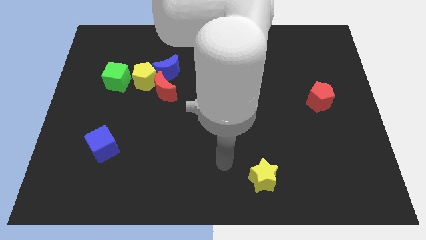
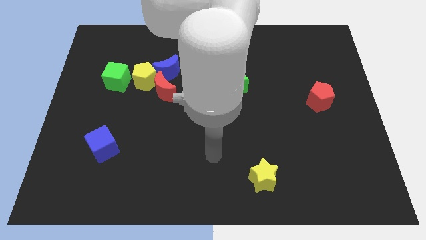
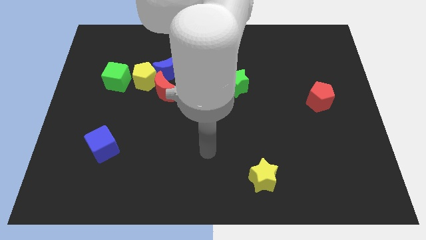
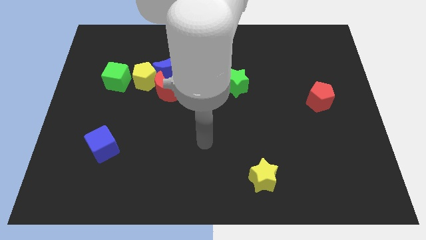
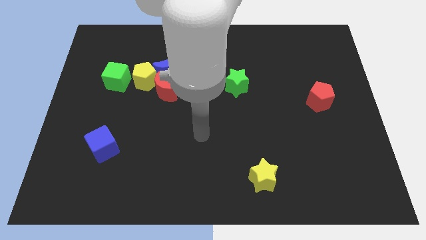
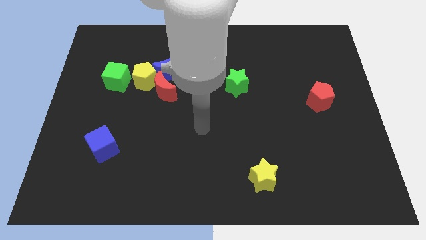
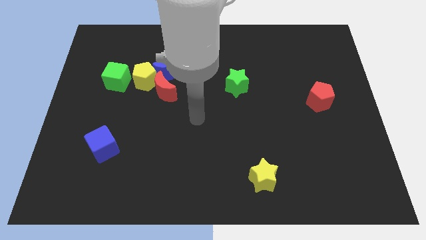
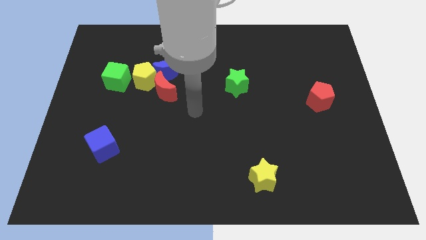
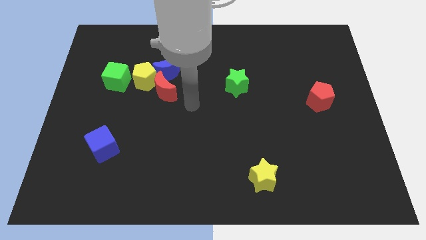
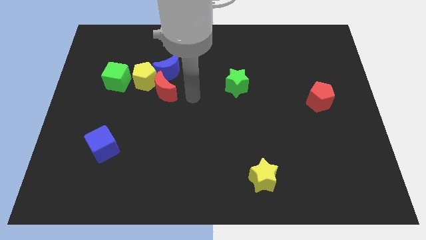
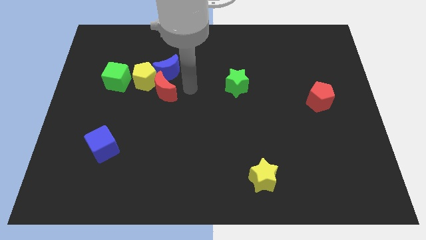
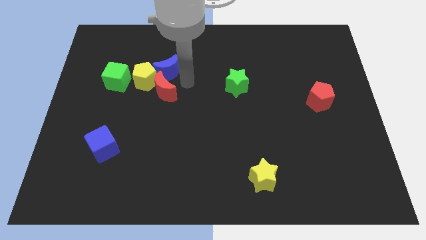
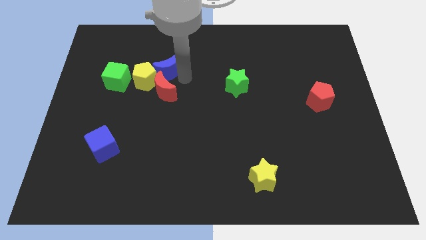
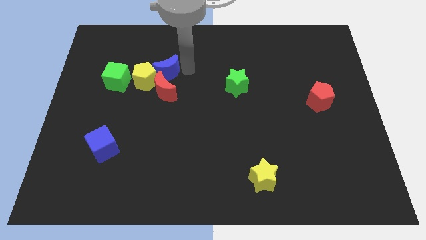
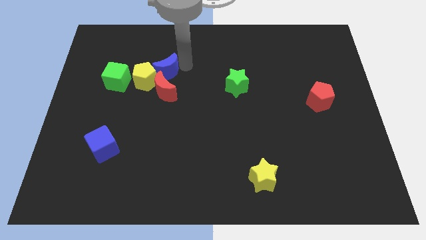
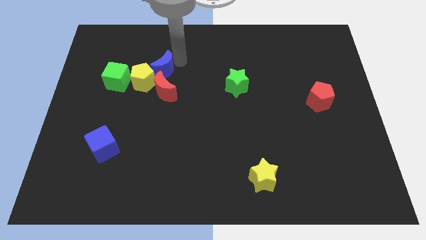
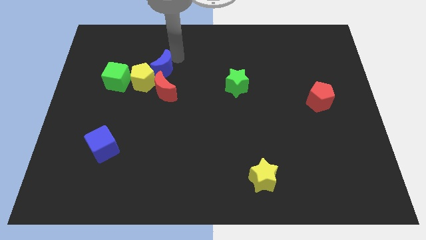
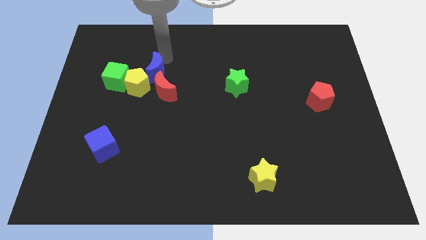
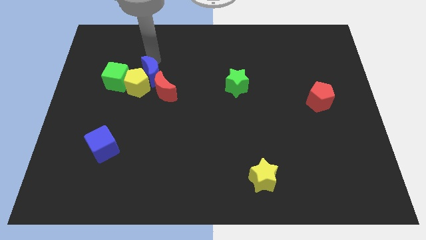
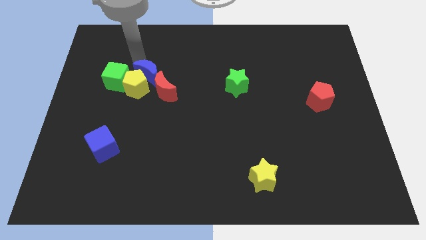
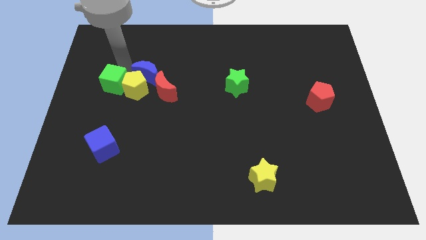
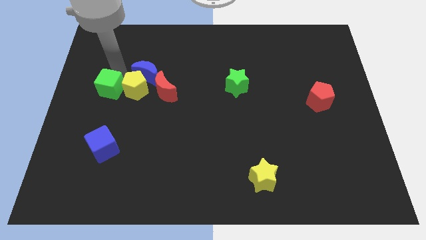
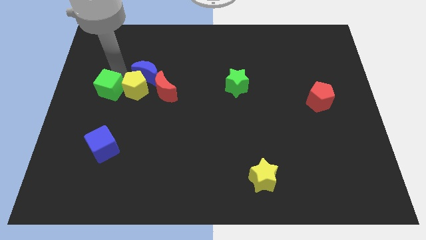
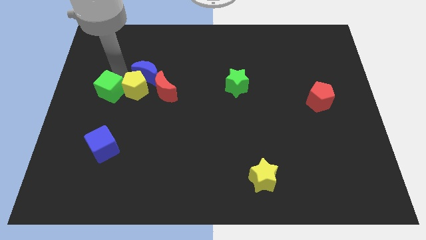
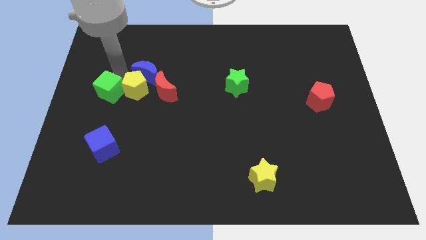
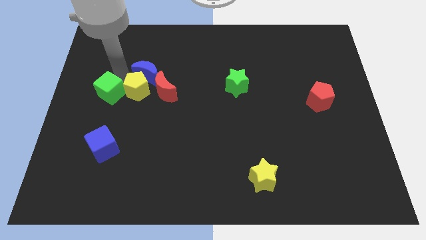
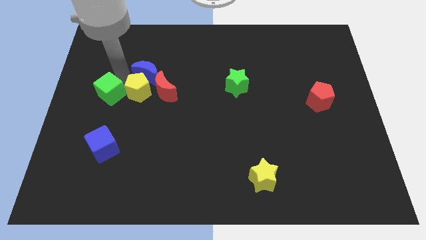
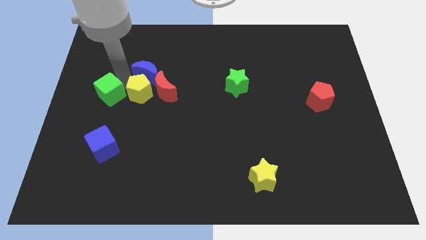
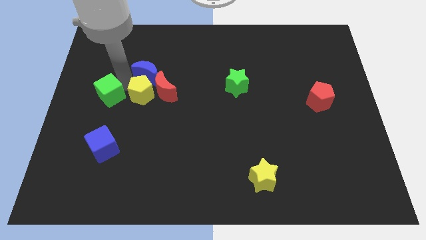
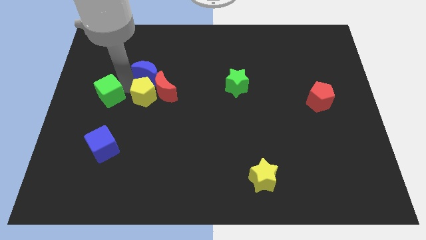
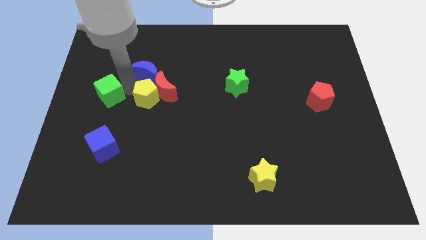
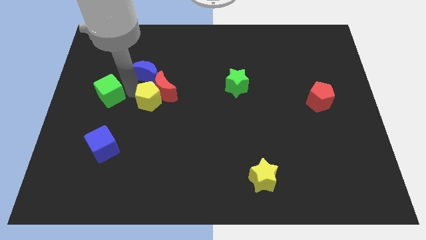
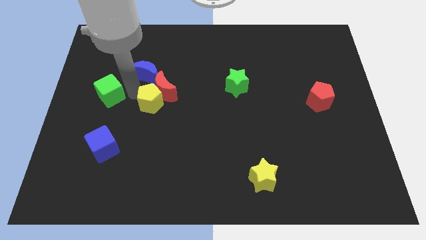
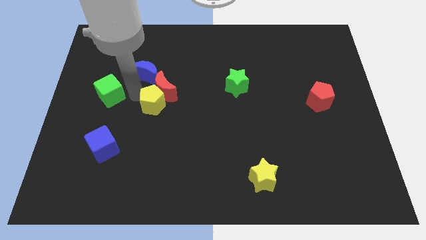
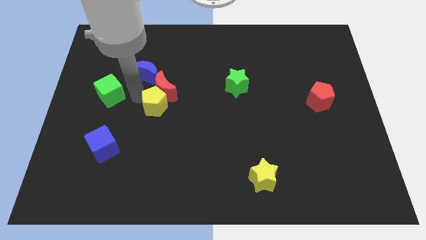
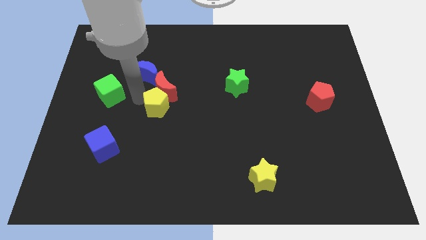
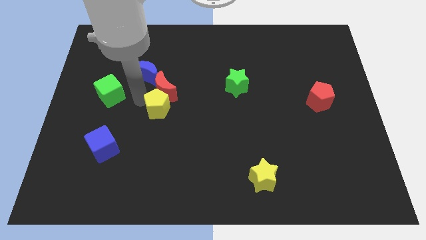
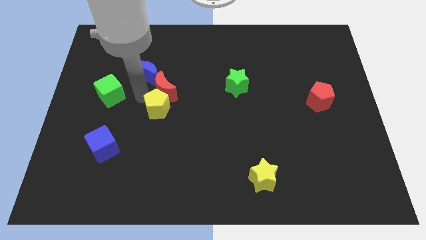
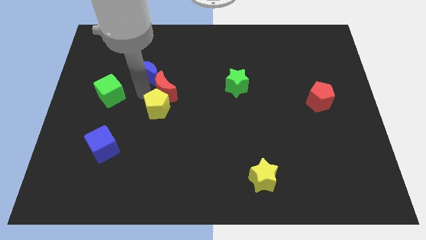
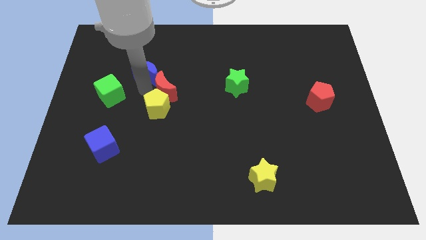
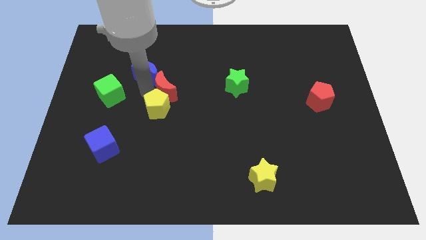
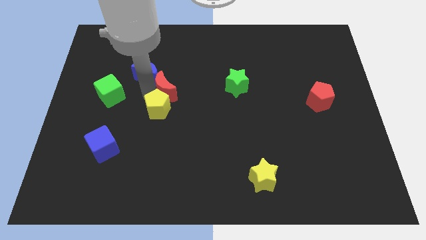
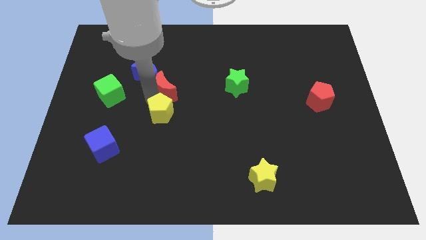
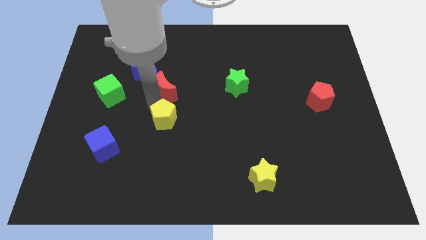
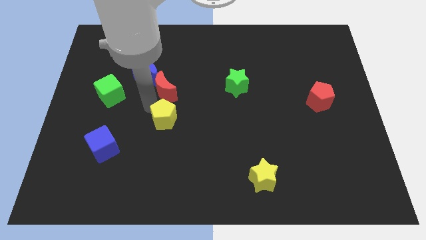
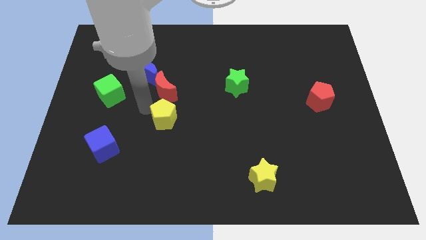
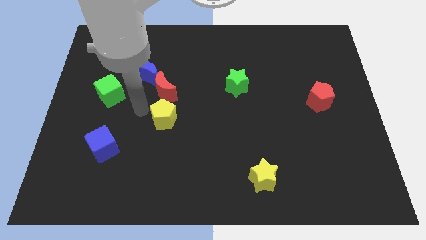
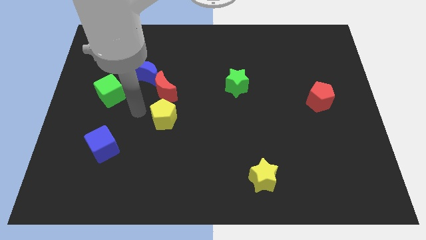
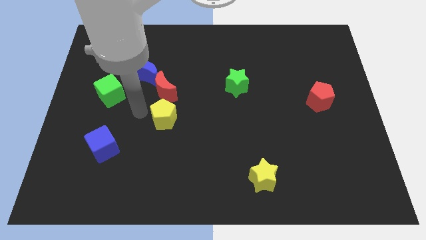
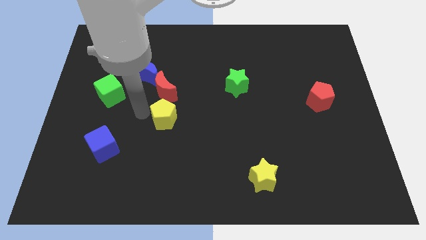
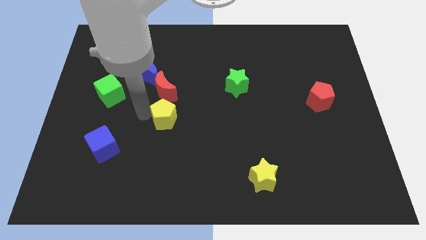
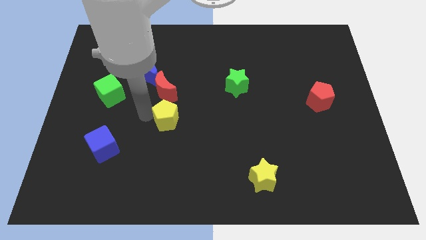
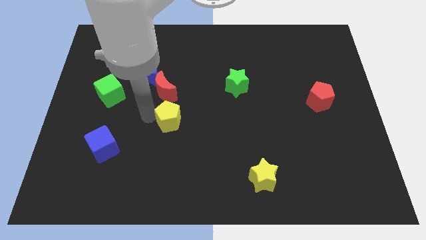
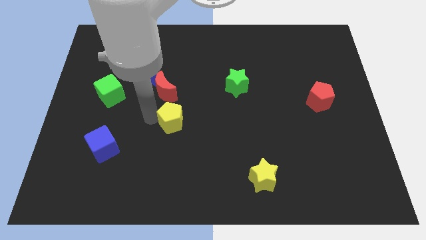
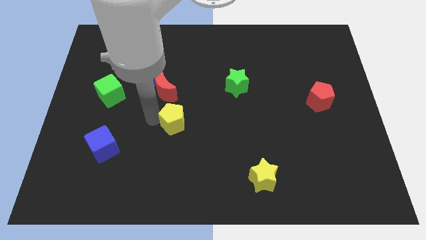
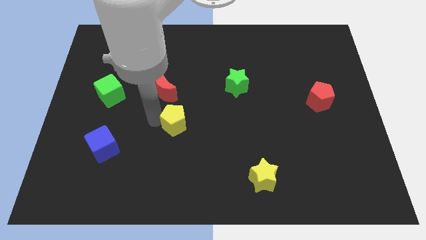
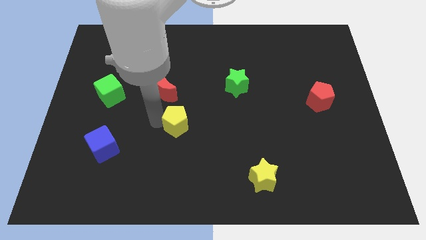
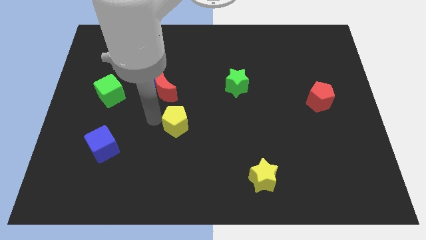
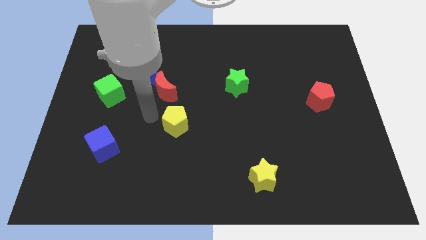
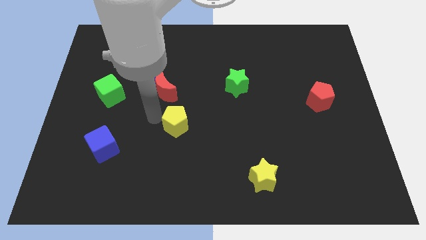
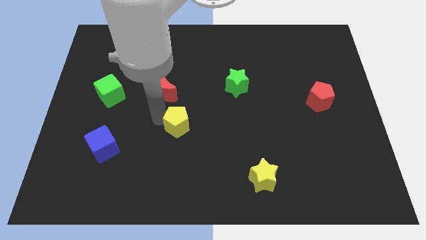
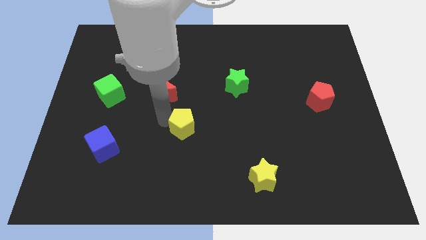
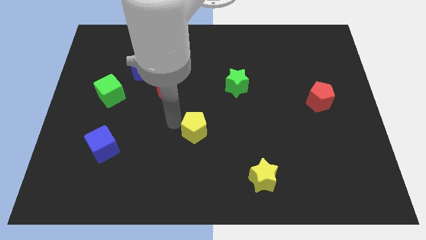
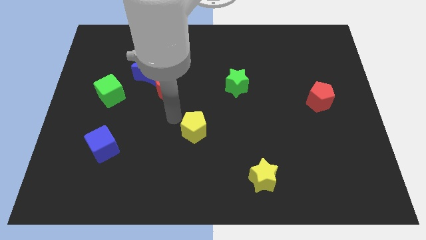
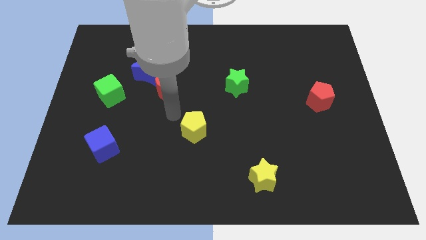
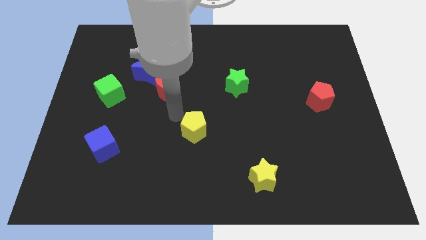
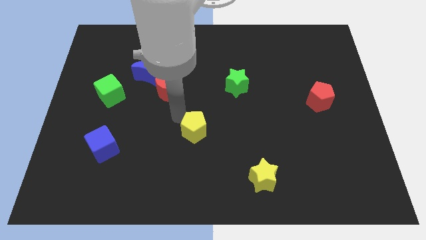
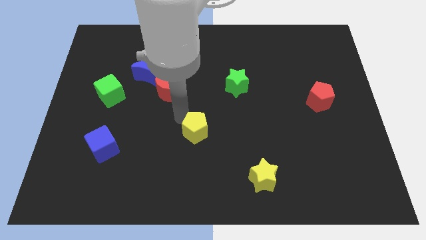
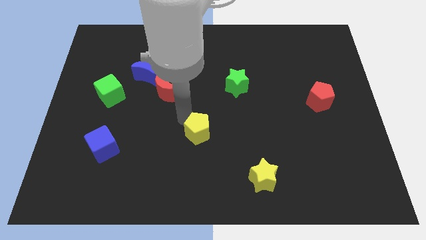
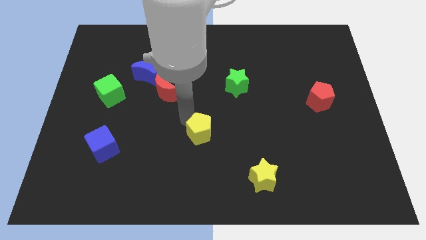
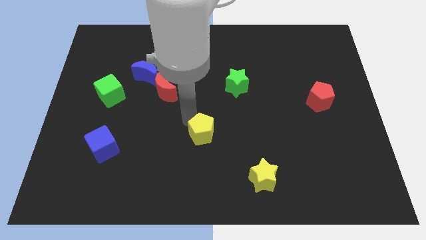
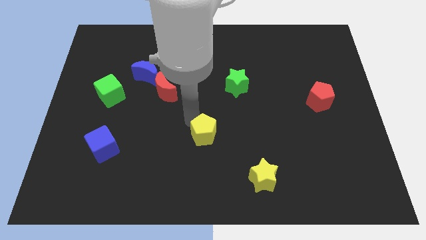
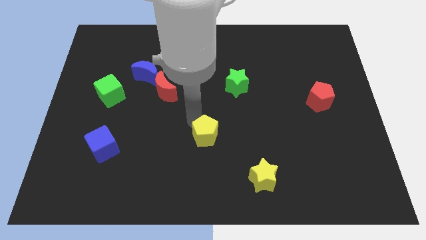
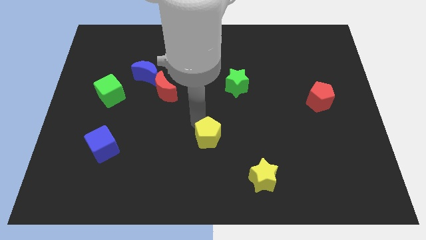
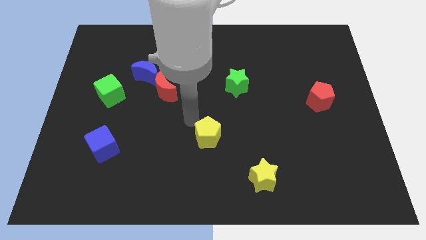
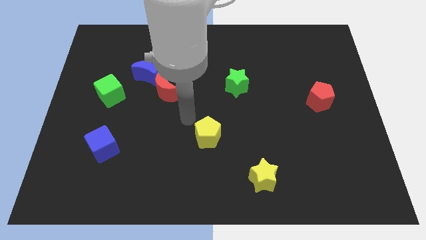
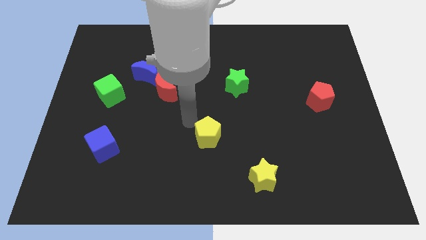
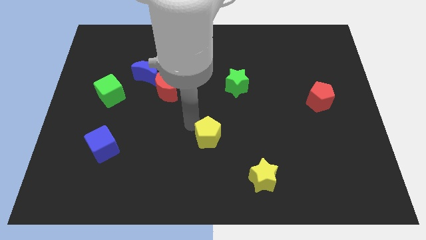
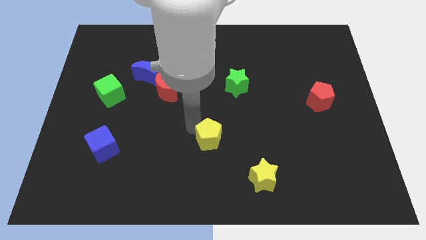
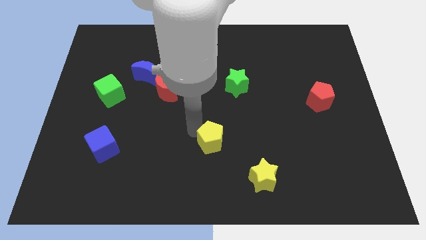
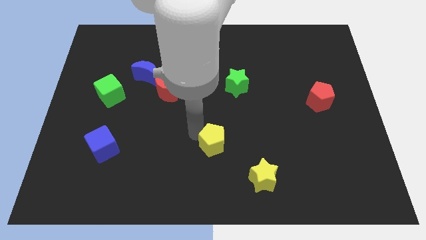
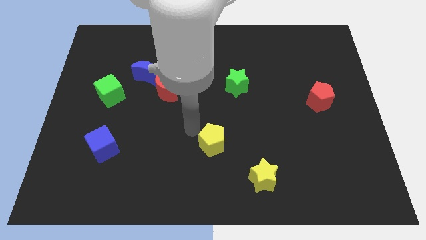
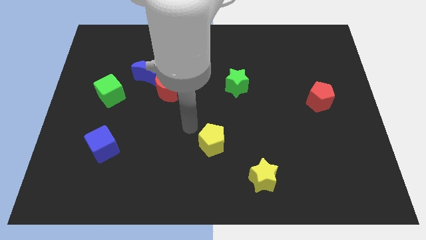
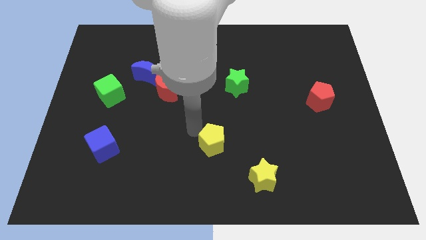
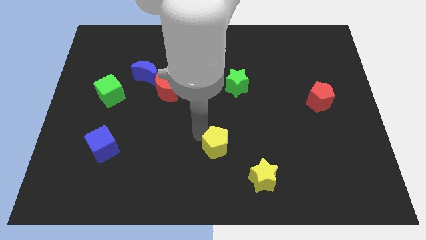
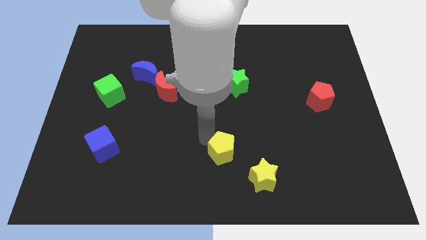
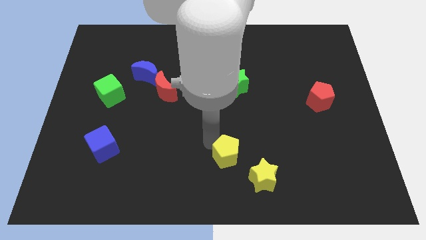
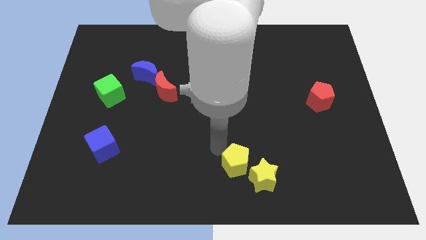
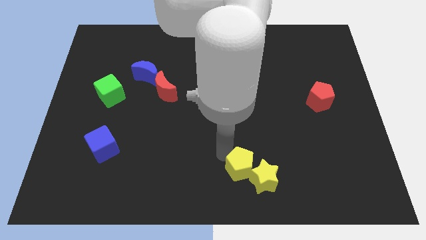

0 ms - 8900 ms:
move the yellow pentagon close to the yellow star
